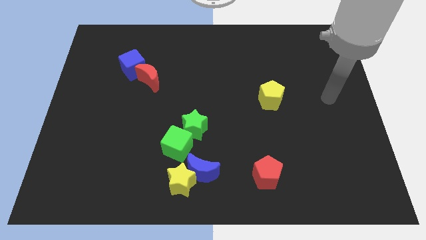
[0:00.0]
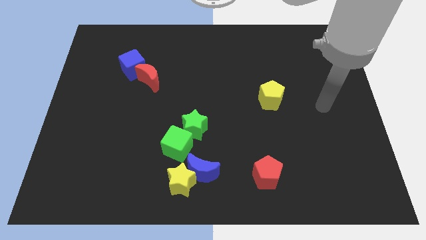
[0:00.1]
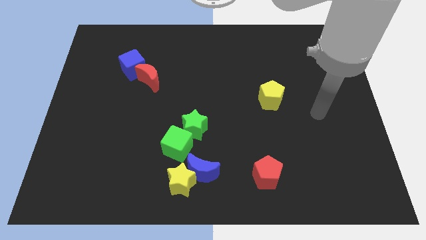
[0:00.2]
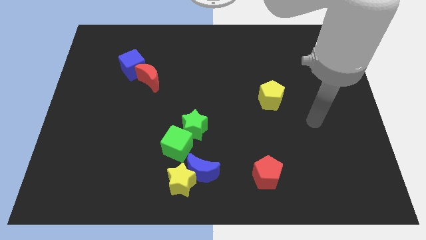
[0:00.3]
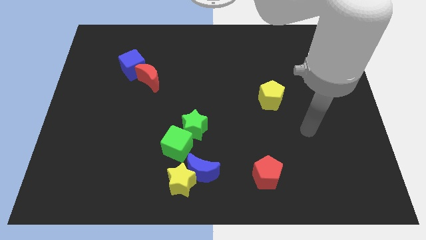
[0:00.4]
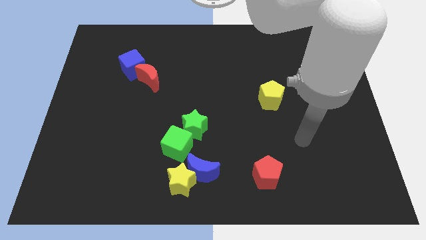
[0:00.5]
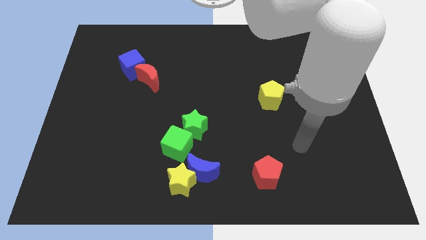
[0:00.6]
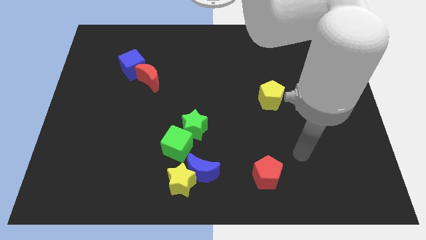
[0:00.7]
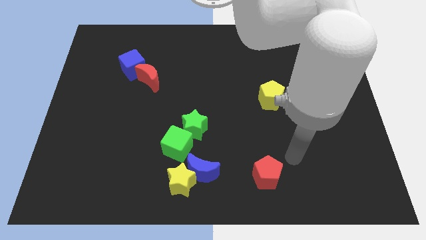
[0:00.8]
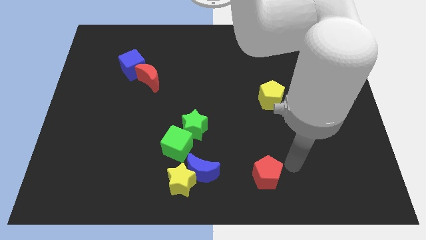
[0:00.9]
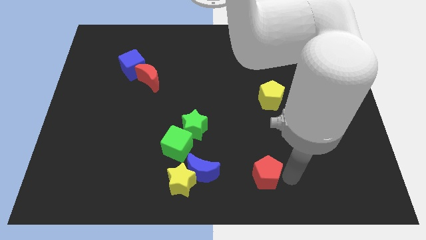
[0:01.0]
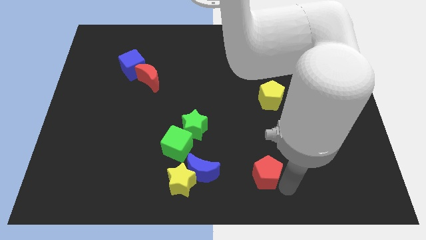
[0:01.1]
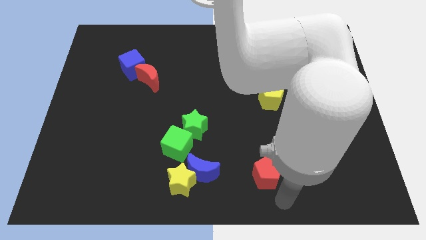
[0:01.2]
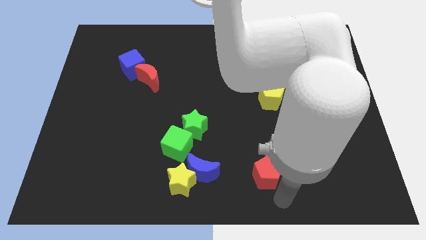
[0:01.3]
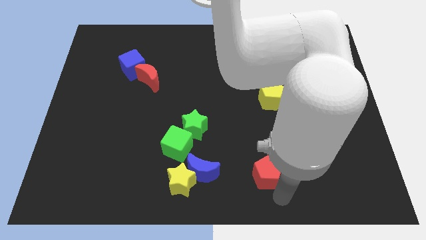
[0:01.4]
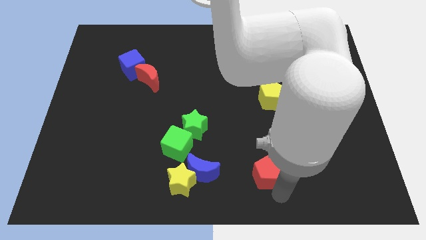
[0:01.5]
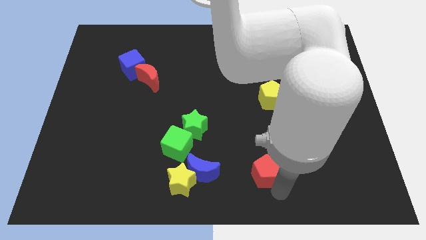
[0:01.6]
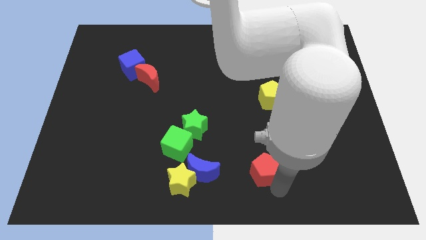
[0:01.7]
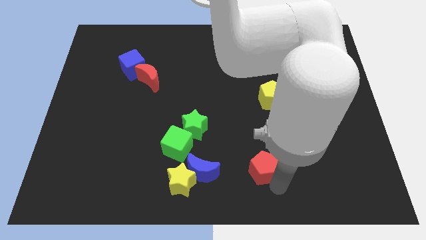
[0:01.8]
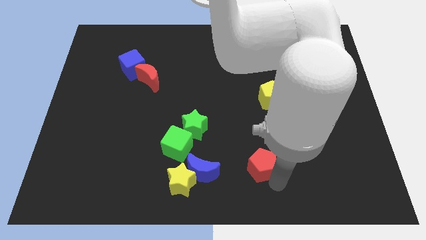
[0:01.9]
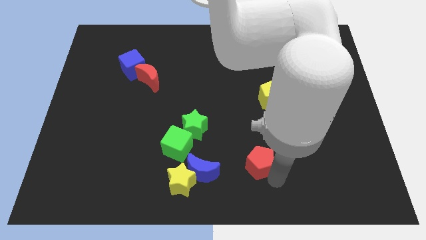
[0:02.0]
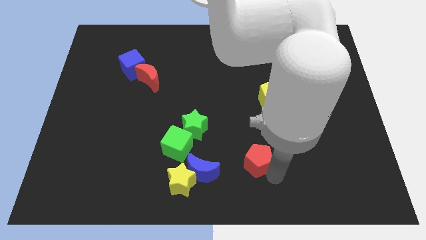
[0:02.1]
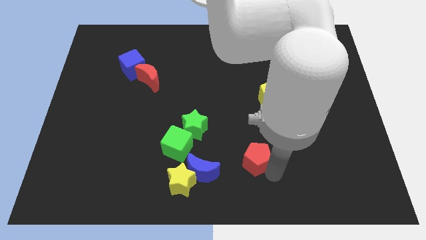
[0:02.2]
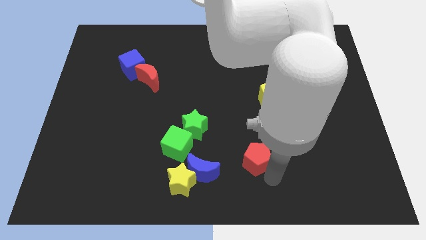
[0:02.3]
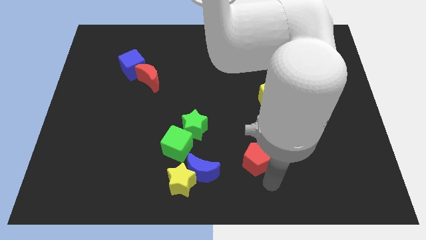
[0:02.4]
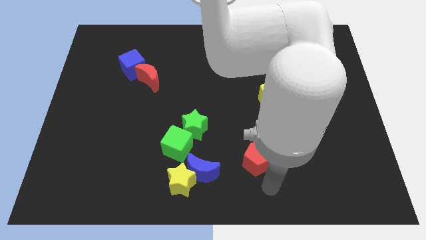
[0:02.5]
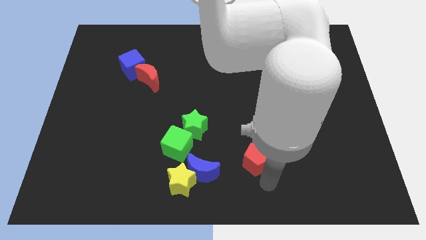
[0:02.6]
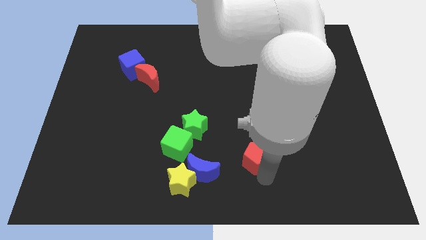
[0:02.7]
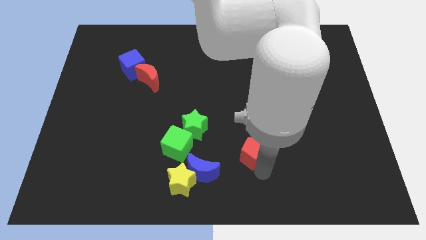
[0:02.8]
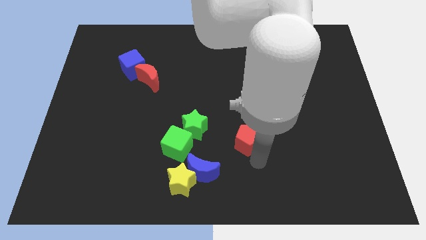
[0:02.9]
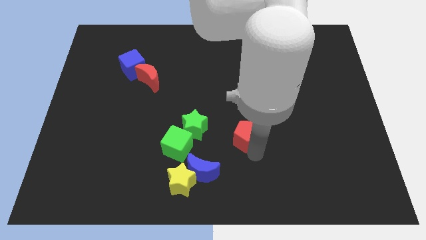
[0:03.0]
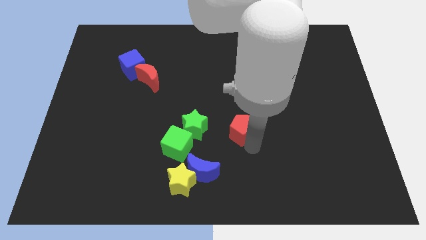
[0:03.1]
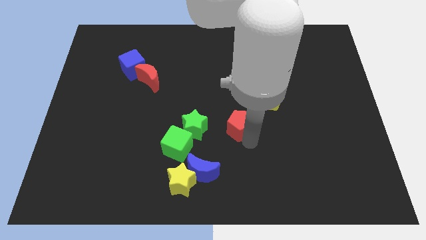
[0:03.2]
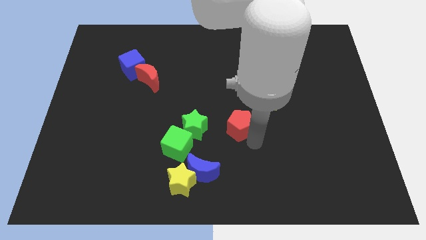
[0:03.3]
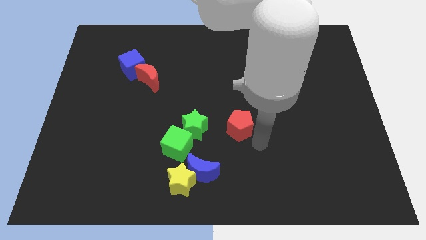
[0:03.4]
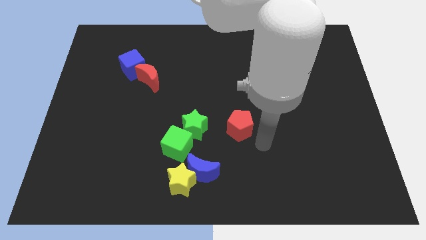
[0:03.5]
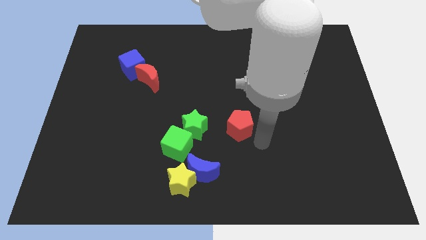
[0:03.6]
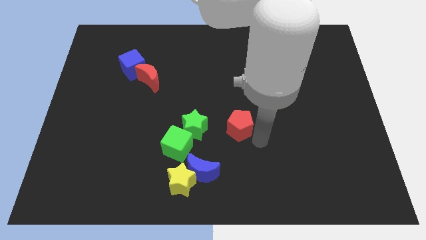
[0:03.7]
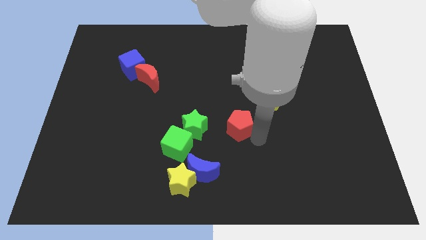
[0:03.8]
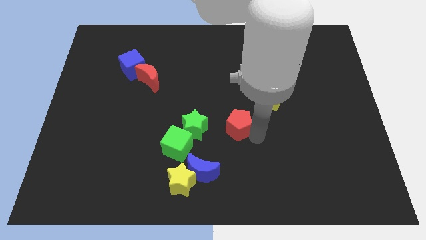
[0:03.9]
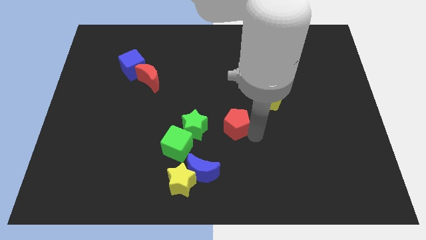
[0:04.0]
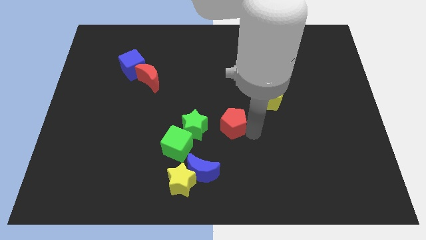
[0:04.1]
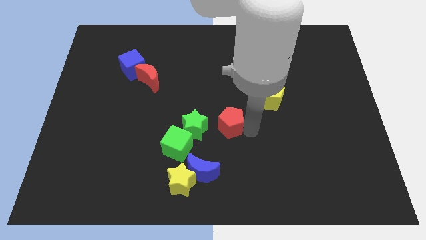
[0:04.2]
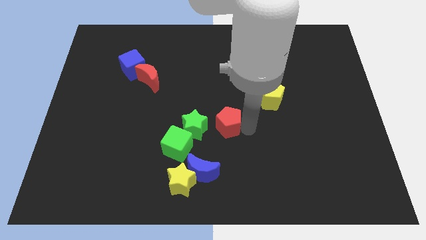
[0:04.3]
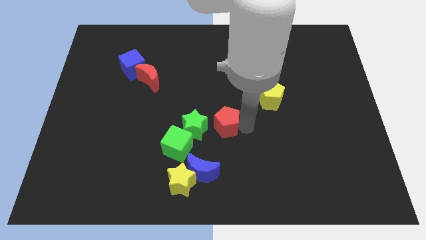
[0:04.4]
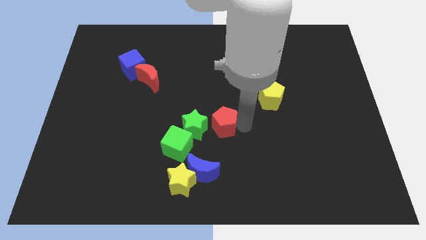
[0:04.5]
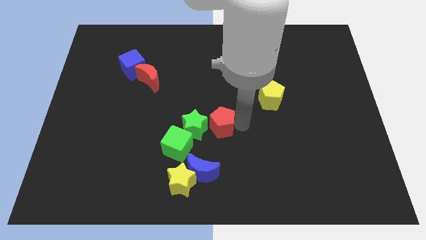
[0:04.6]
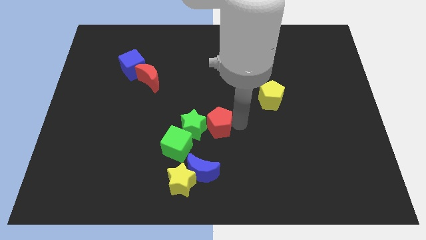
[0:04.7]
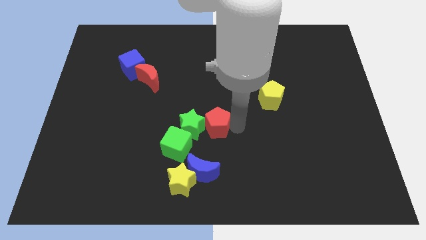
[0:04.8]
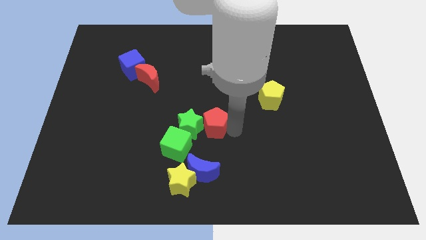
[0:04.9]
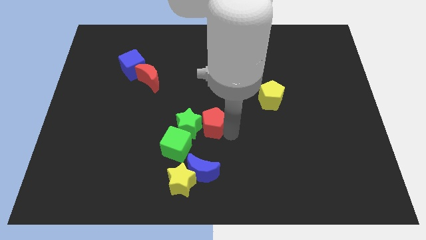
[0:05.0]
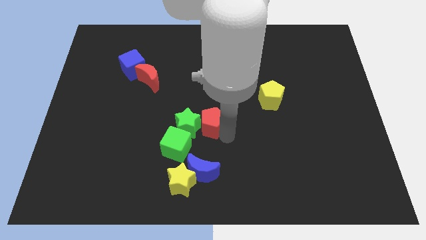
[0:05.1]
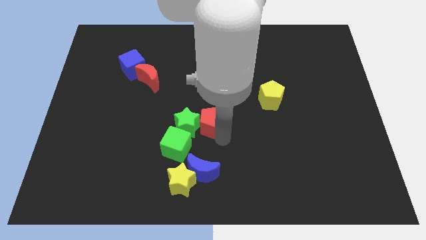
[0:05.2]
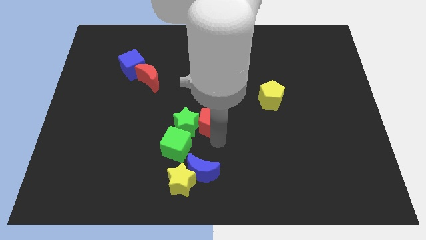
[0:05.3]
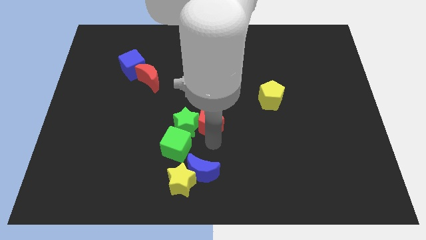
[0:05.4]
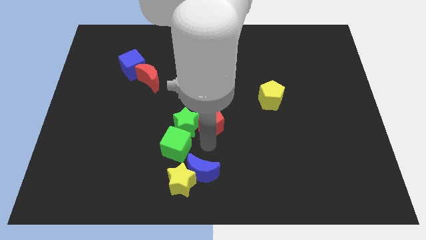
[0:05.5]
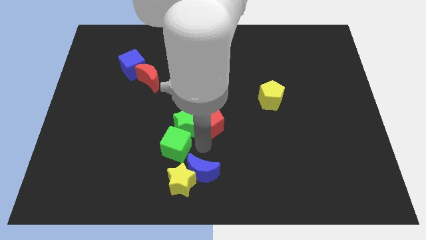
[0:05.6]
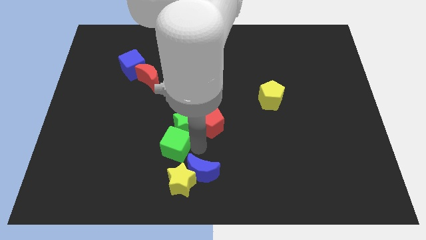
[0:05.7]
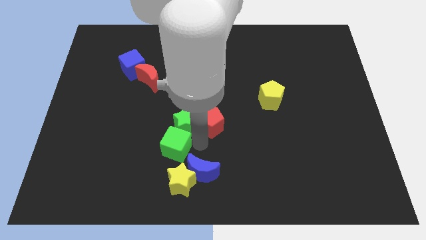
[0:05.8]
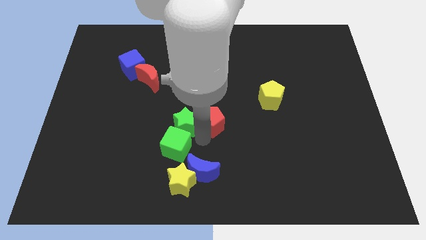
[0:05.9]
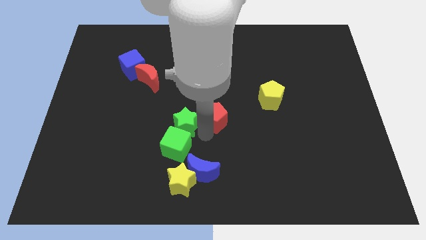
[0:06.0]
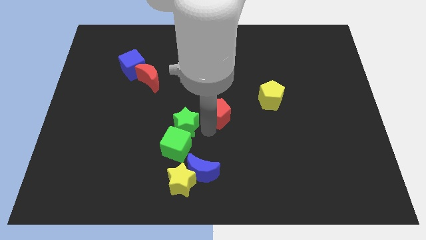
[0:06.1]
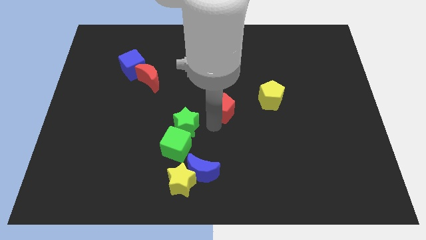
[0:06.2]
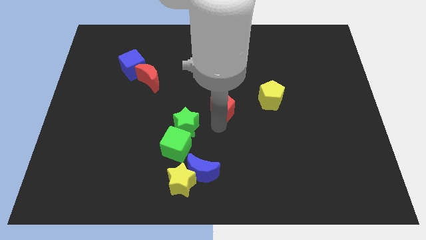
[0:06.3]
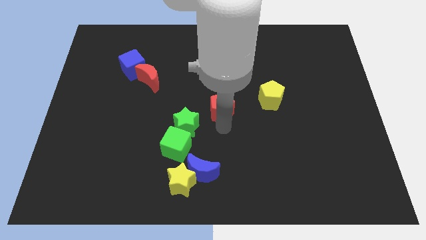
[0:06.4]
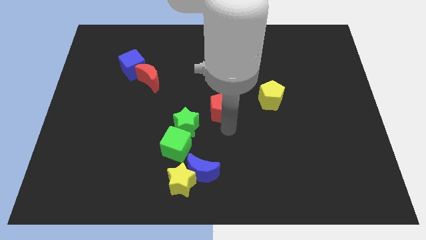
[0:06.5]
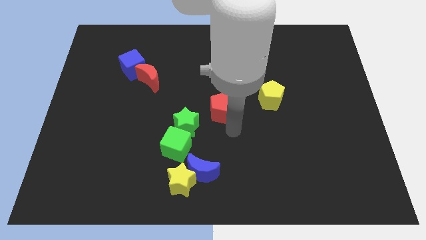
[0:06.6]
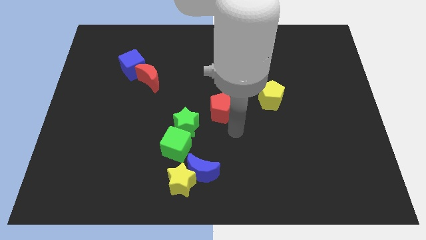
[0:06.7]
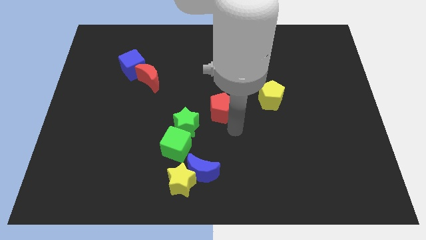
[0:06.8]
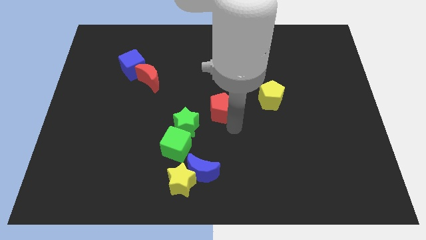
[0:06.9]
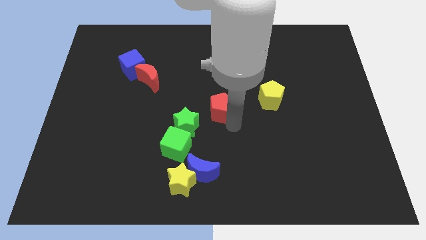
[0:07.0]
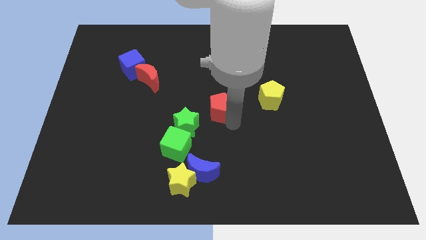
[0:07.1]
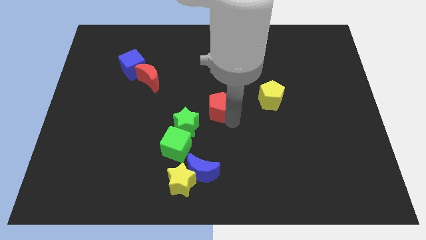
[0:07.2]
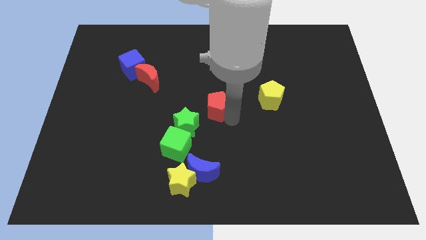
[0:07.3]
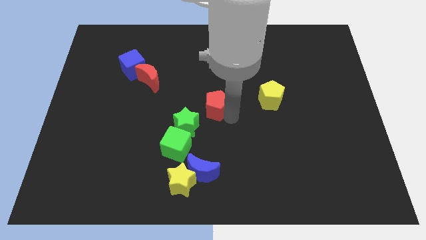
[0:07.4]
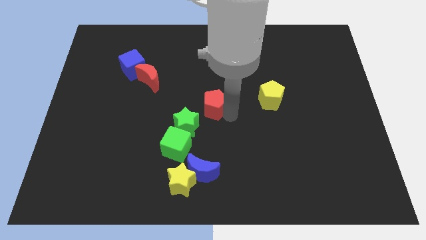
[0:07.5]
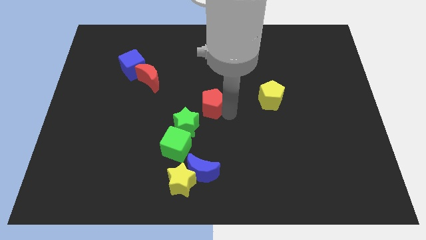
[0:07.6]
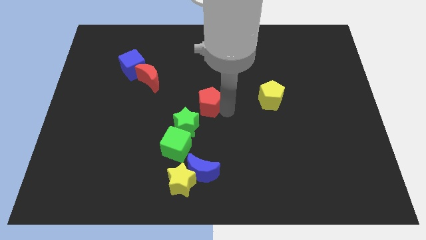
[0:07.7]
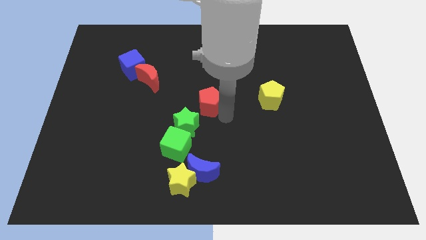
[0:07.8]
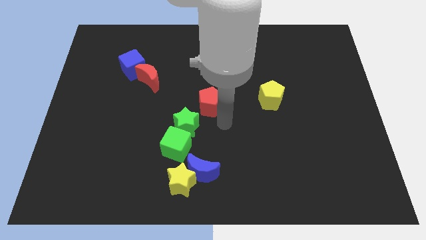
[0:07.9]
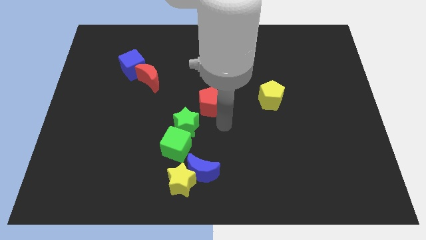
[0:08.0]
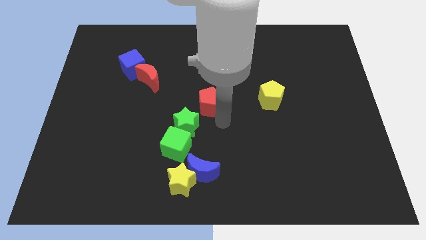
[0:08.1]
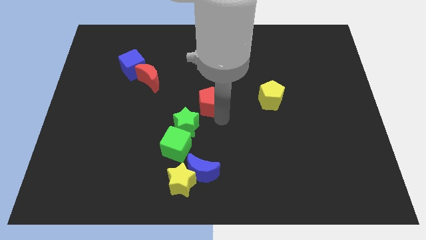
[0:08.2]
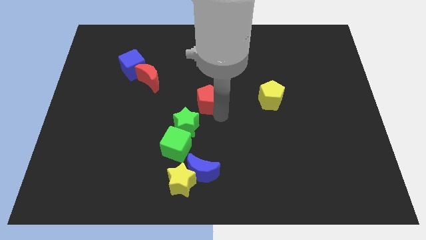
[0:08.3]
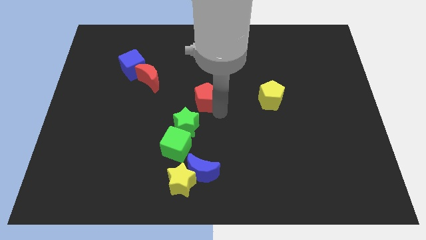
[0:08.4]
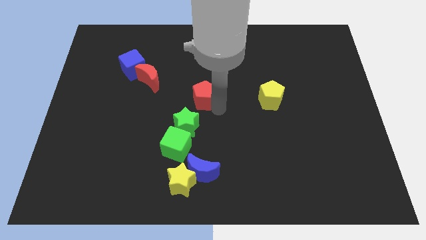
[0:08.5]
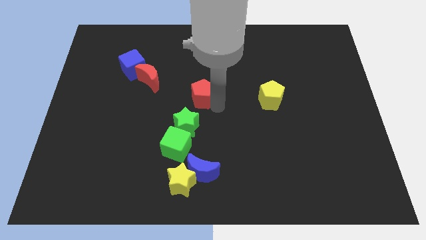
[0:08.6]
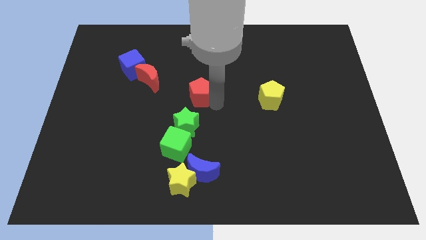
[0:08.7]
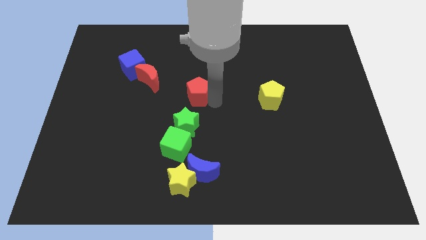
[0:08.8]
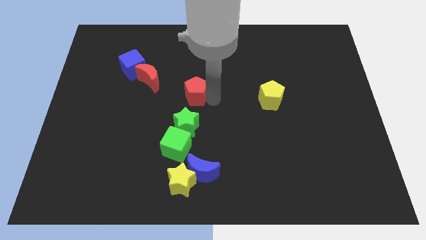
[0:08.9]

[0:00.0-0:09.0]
push the red pentagon to the right side of the red moon
